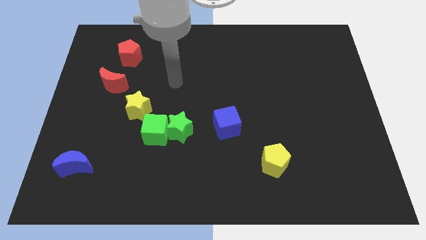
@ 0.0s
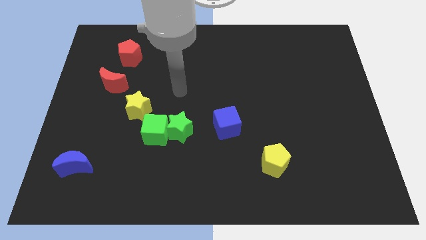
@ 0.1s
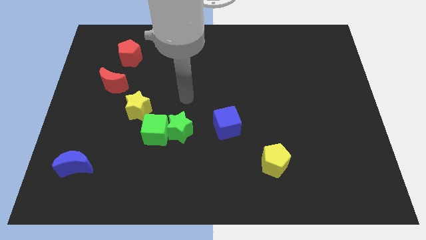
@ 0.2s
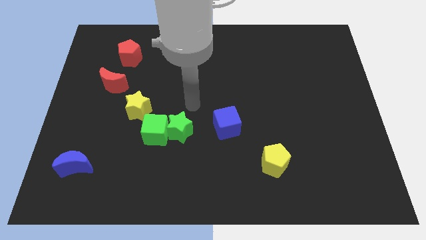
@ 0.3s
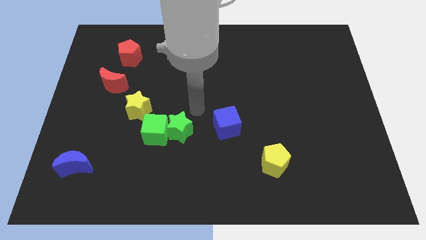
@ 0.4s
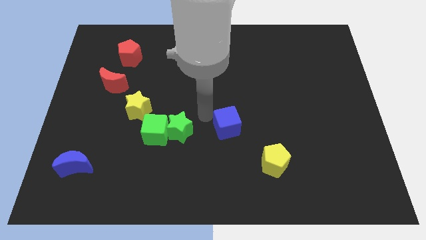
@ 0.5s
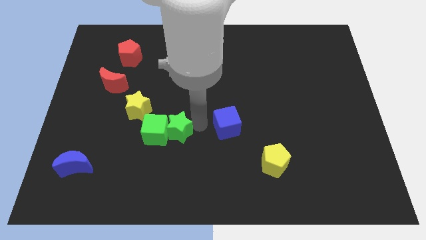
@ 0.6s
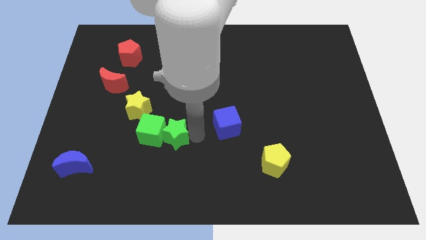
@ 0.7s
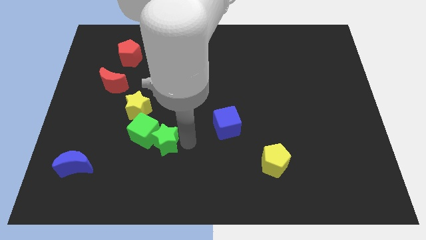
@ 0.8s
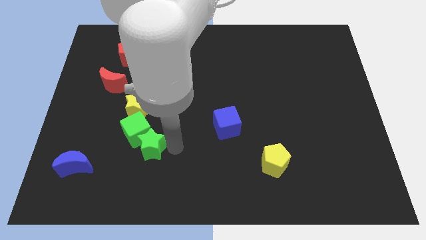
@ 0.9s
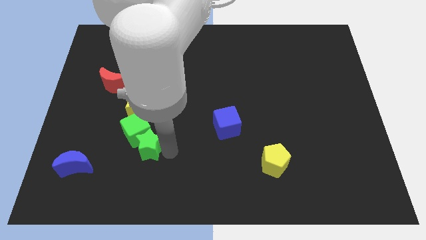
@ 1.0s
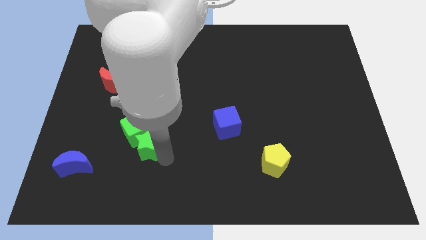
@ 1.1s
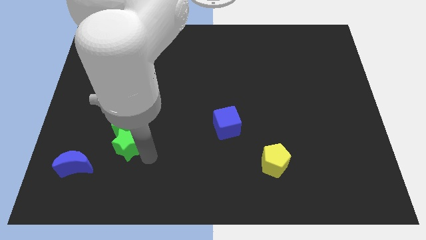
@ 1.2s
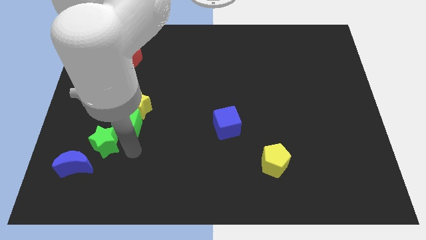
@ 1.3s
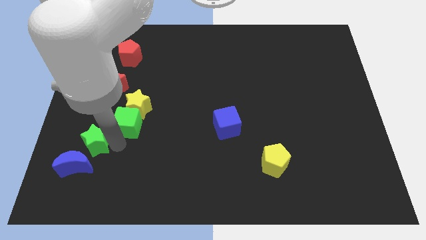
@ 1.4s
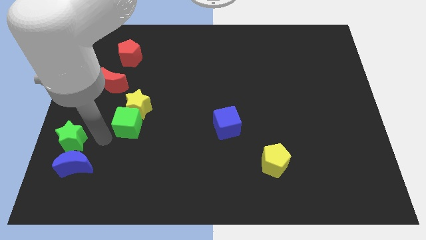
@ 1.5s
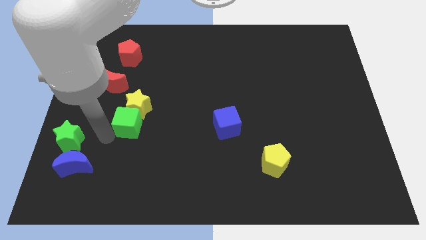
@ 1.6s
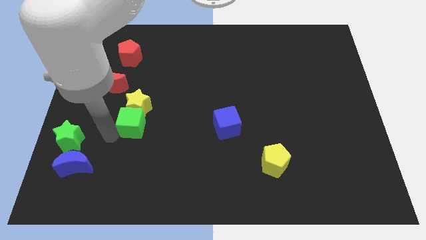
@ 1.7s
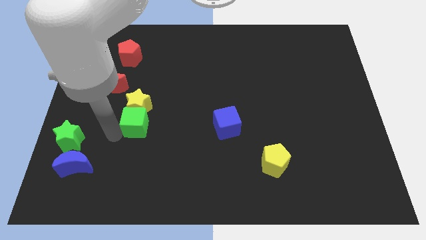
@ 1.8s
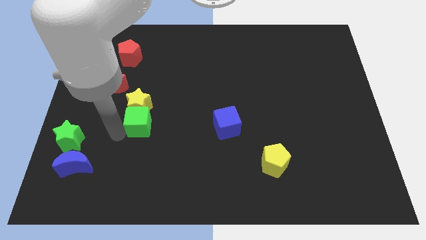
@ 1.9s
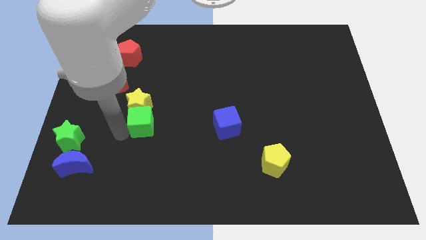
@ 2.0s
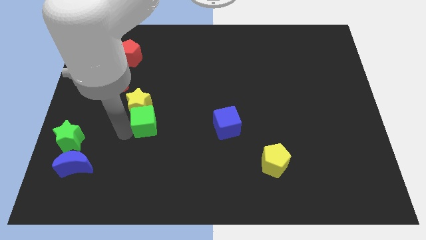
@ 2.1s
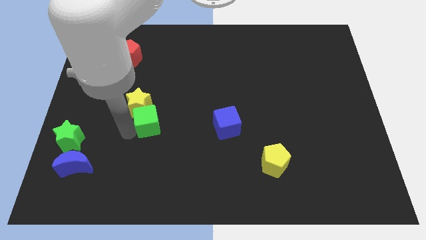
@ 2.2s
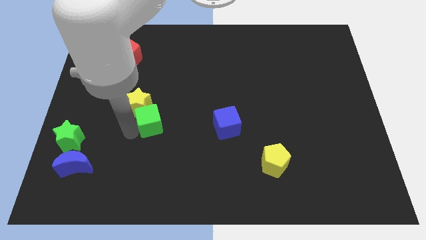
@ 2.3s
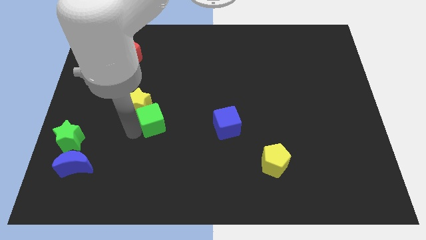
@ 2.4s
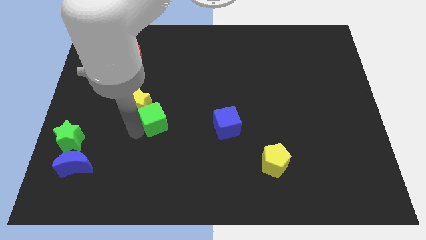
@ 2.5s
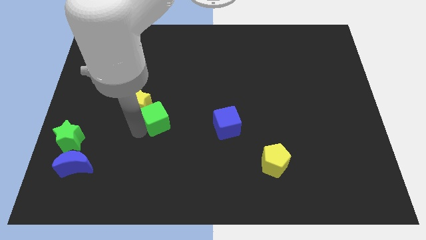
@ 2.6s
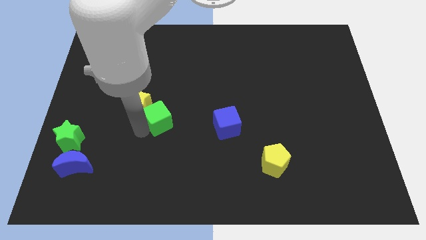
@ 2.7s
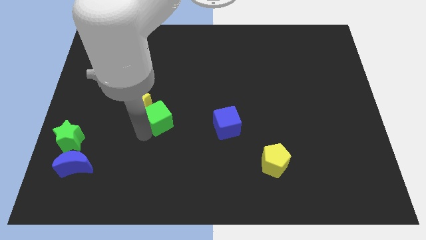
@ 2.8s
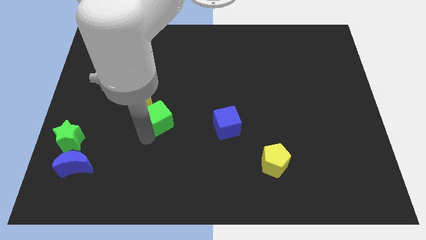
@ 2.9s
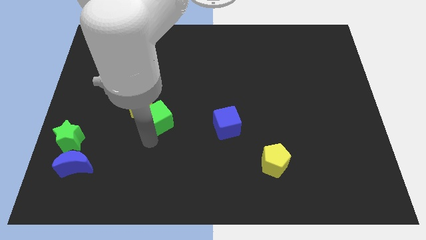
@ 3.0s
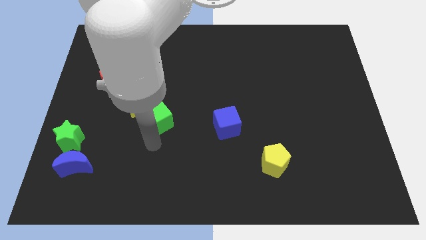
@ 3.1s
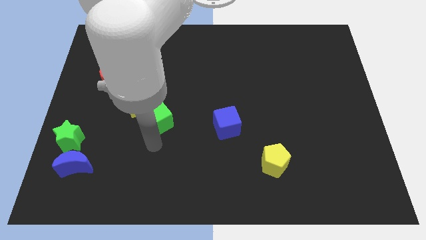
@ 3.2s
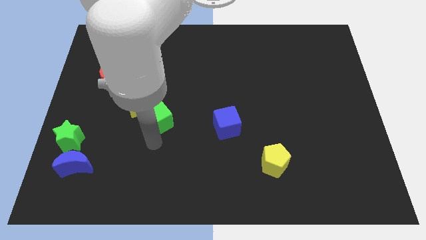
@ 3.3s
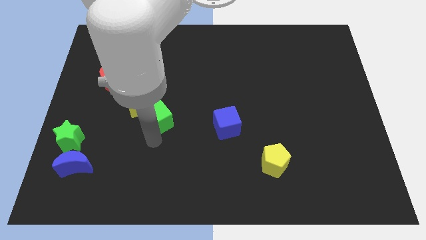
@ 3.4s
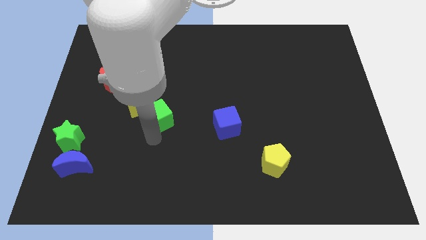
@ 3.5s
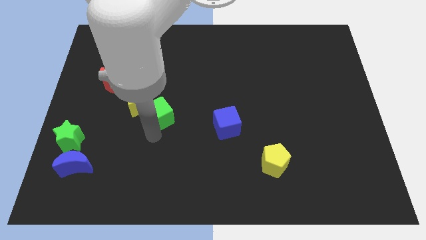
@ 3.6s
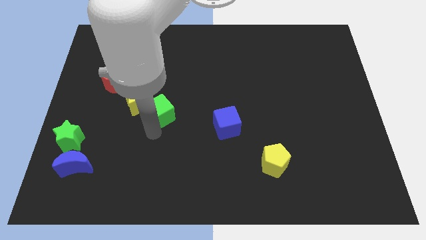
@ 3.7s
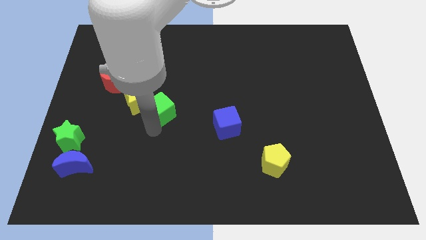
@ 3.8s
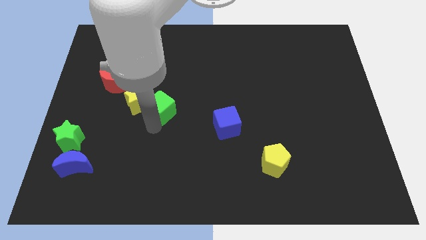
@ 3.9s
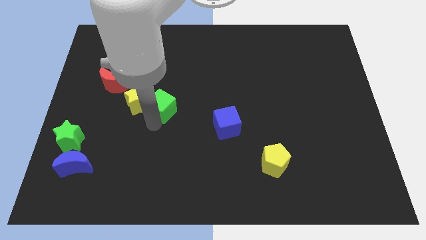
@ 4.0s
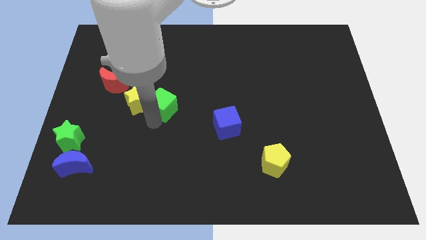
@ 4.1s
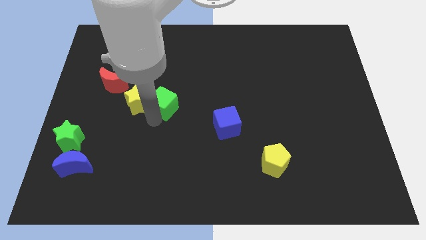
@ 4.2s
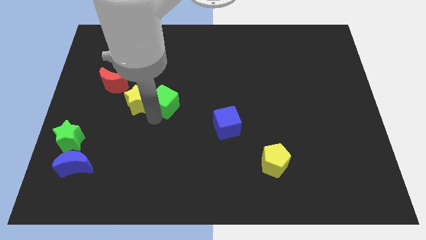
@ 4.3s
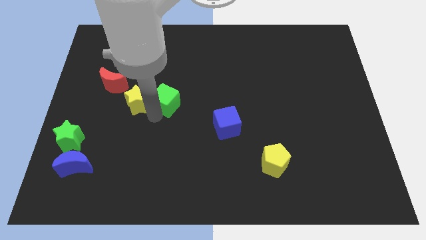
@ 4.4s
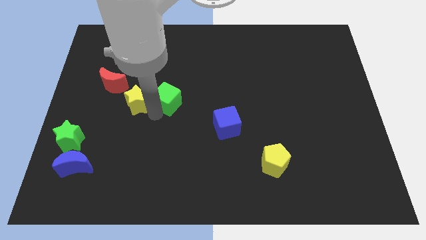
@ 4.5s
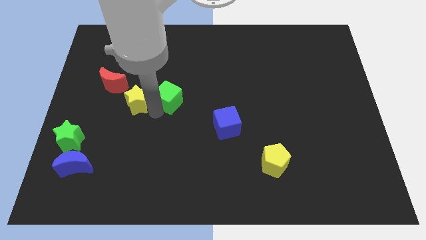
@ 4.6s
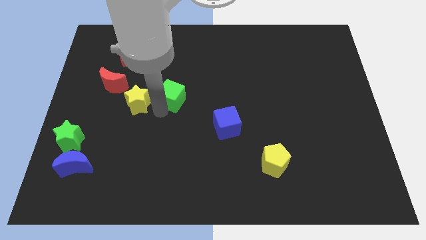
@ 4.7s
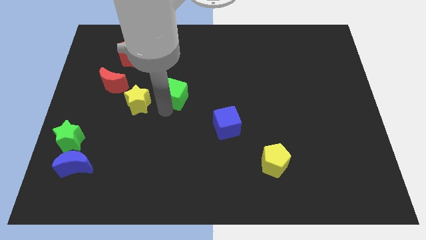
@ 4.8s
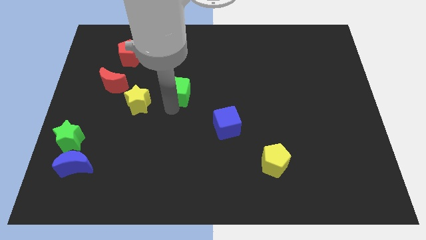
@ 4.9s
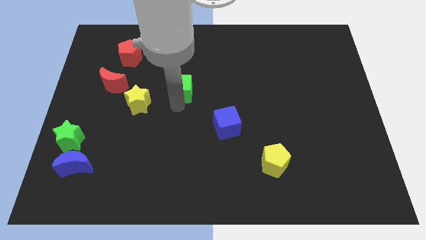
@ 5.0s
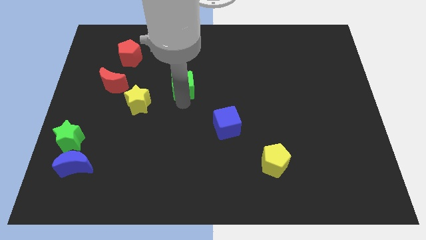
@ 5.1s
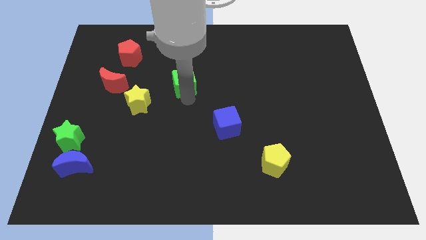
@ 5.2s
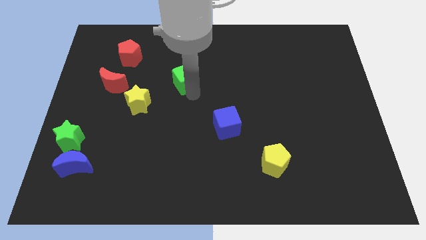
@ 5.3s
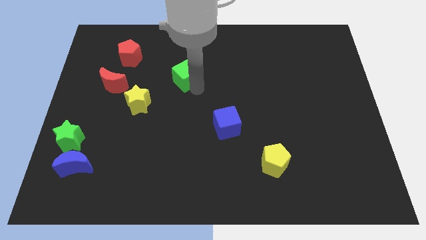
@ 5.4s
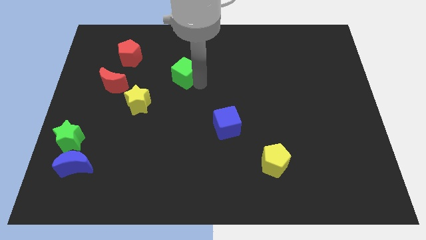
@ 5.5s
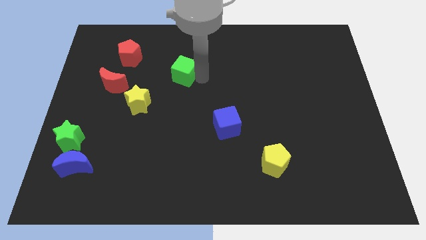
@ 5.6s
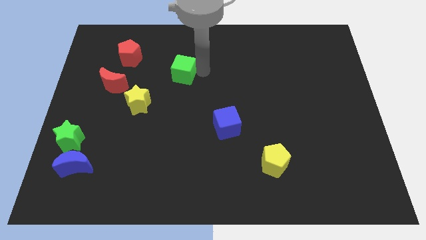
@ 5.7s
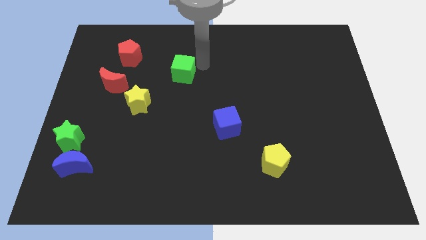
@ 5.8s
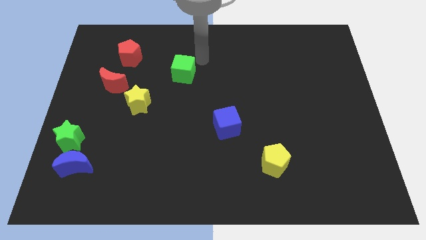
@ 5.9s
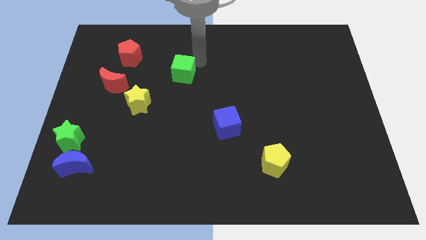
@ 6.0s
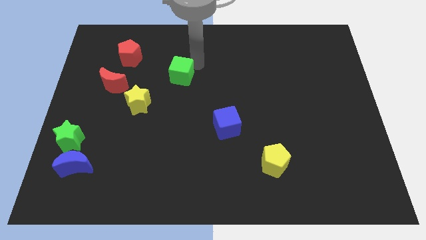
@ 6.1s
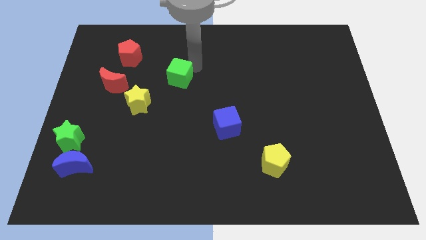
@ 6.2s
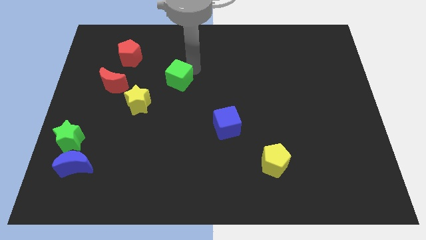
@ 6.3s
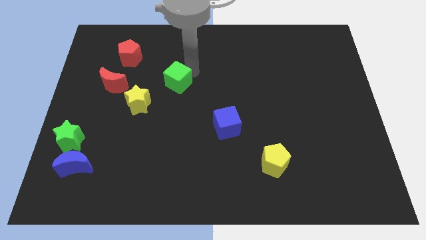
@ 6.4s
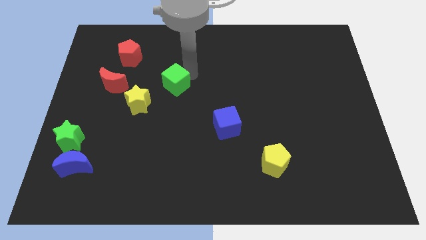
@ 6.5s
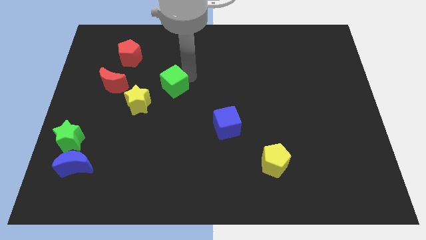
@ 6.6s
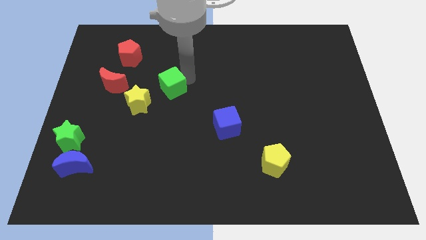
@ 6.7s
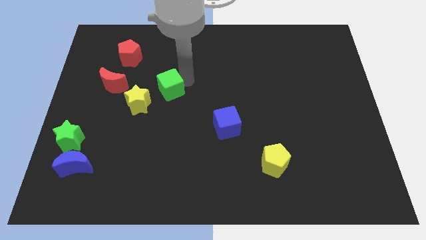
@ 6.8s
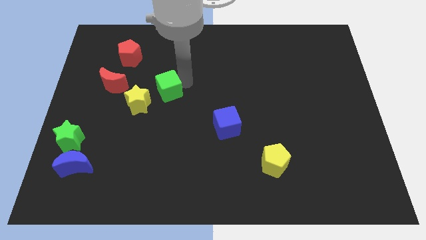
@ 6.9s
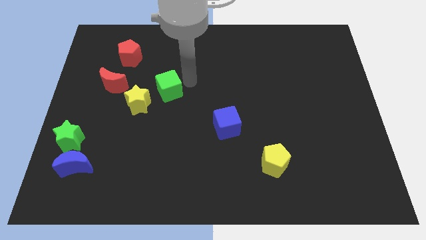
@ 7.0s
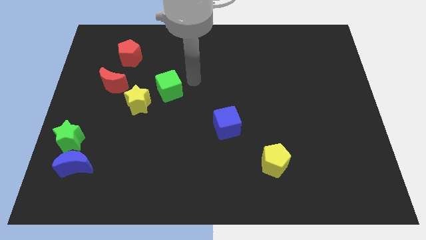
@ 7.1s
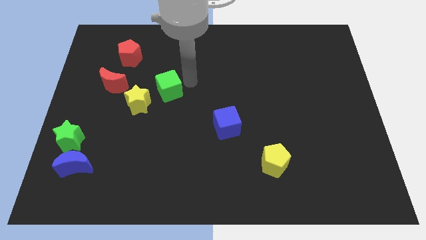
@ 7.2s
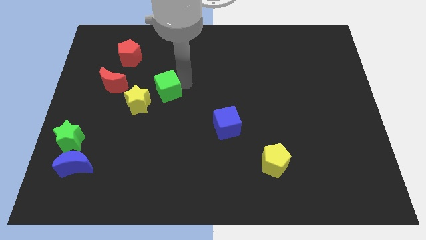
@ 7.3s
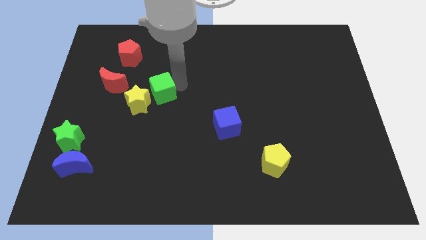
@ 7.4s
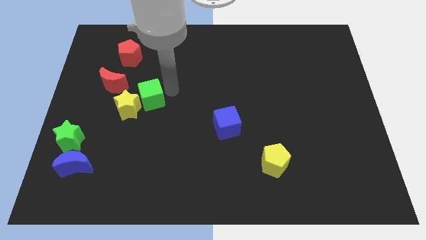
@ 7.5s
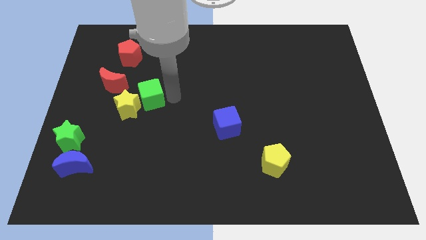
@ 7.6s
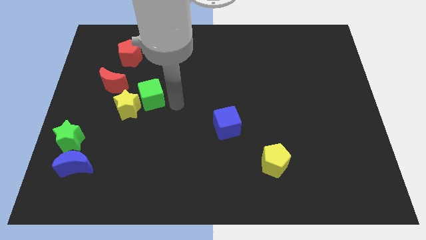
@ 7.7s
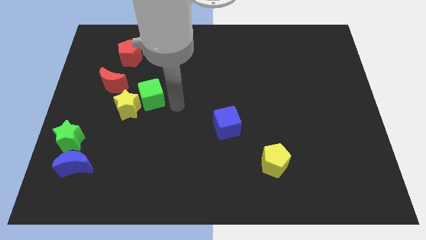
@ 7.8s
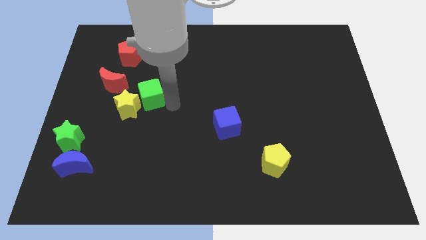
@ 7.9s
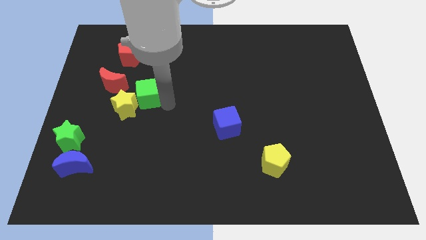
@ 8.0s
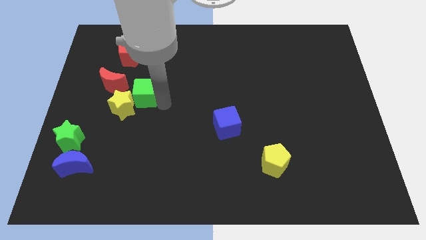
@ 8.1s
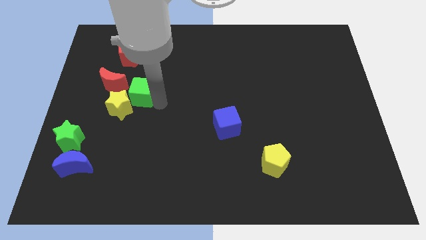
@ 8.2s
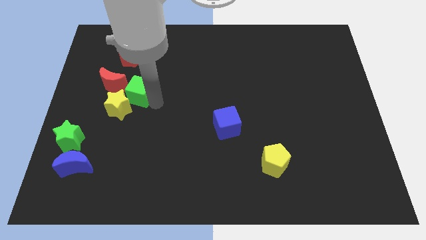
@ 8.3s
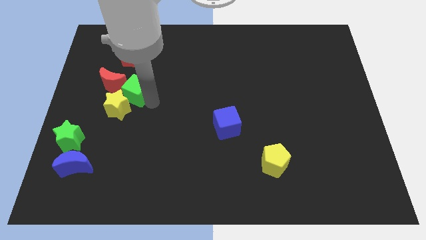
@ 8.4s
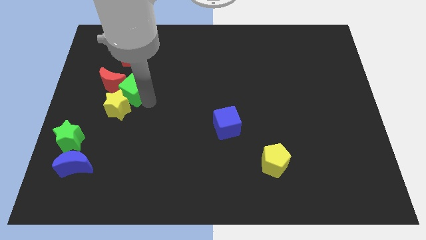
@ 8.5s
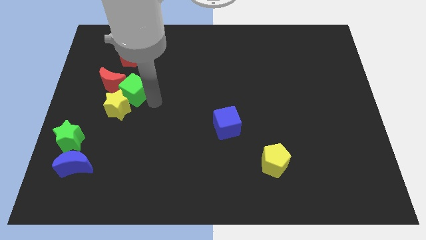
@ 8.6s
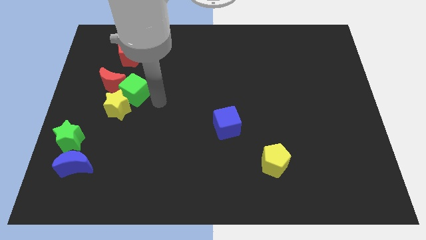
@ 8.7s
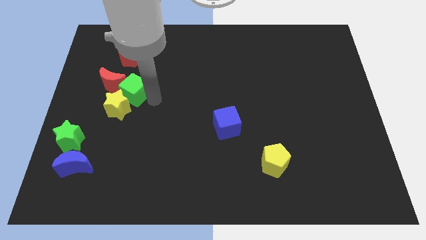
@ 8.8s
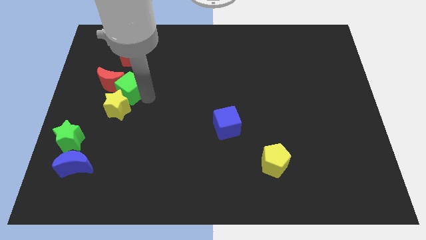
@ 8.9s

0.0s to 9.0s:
slide the green cube close to the red moon
